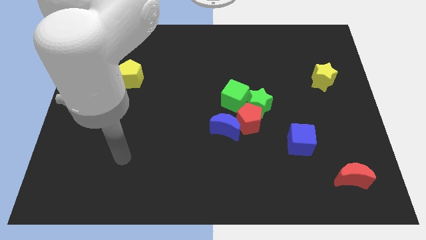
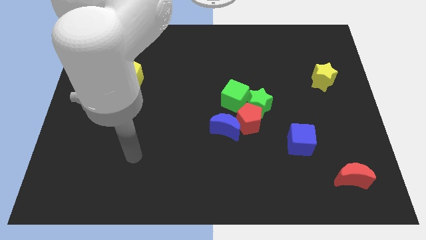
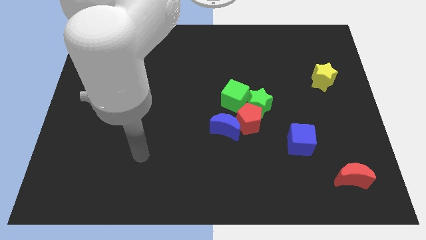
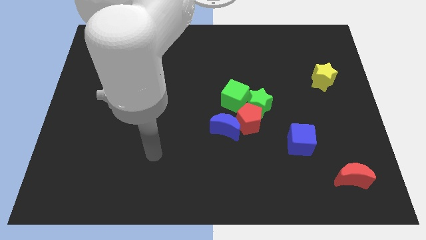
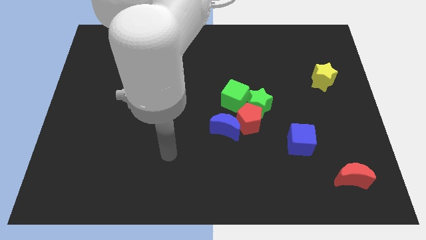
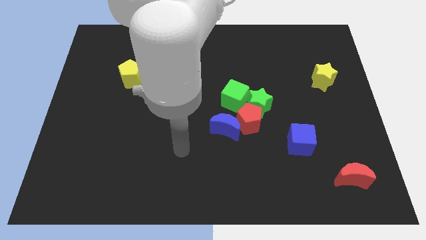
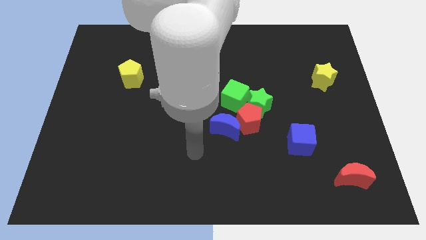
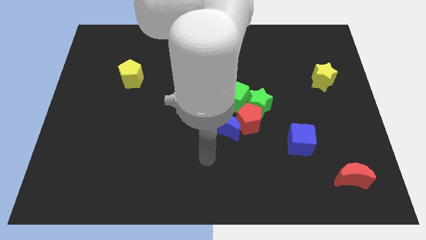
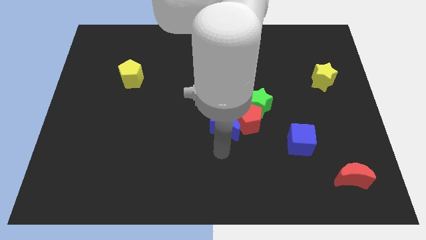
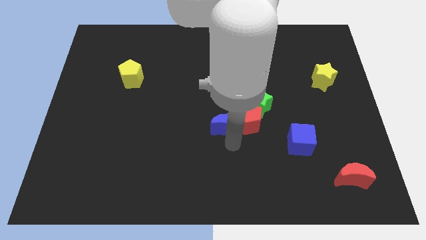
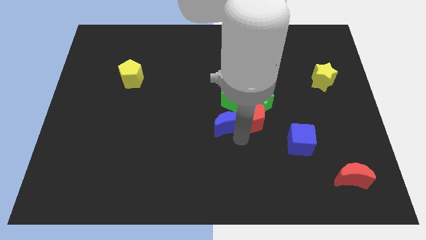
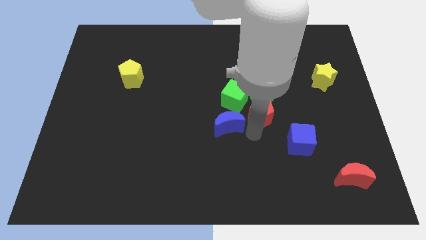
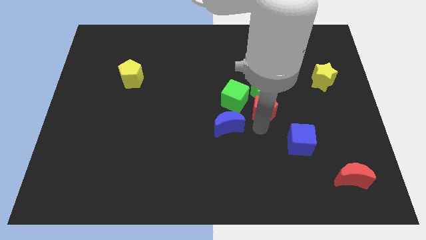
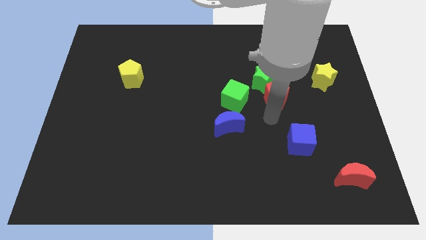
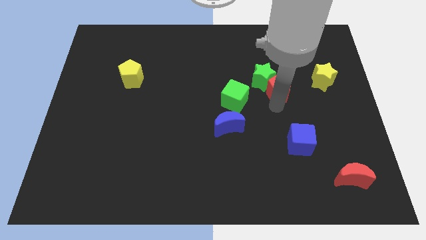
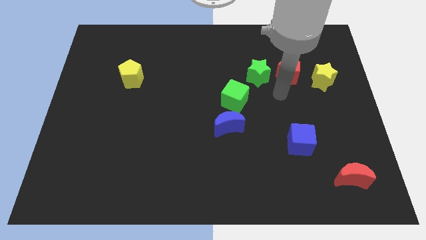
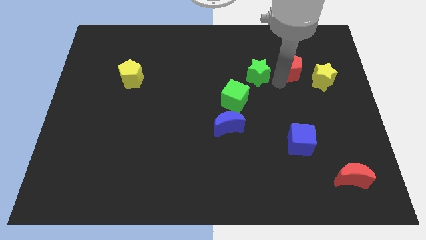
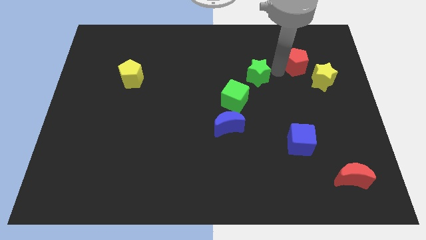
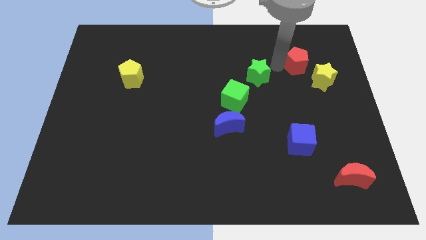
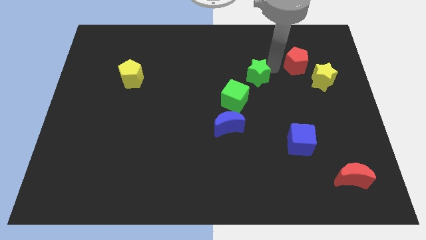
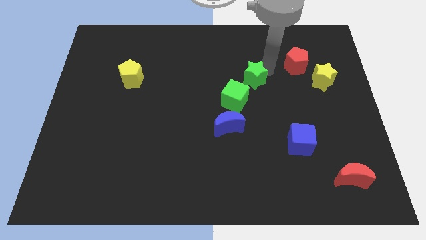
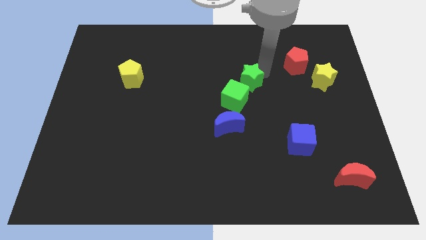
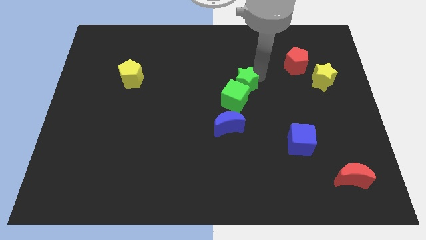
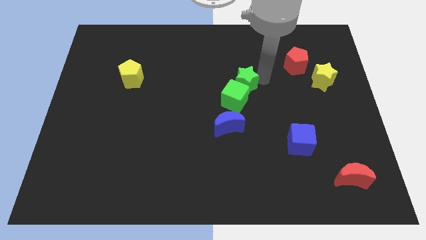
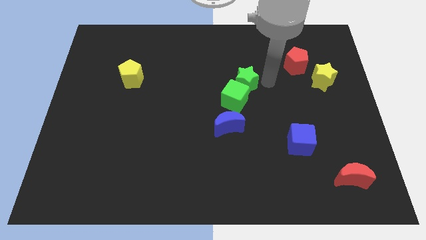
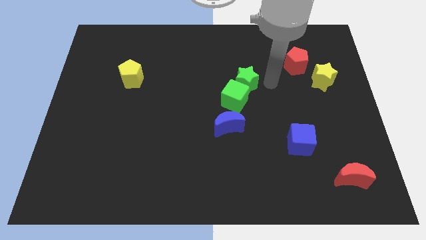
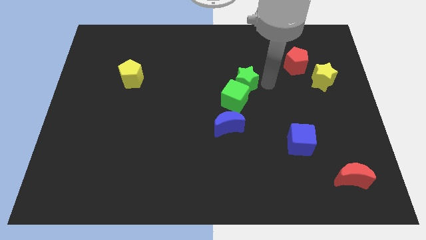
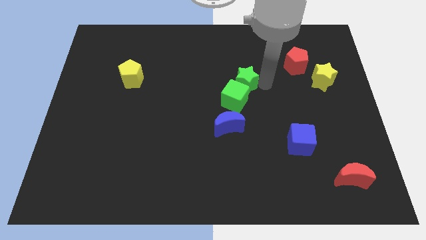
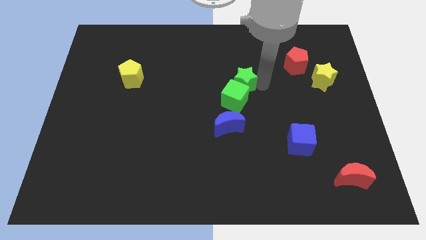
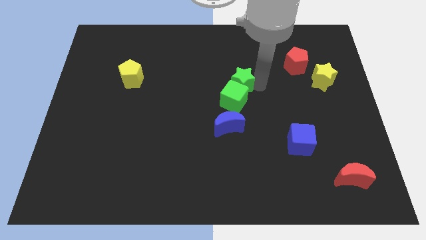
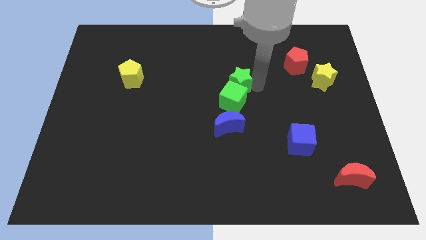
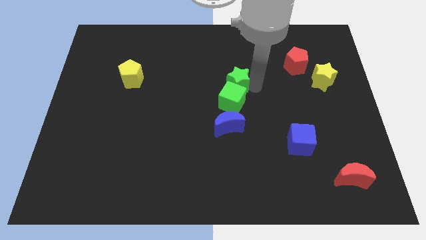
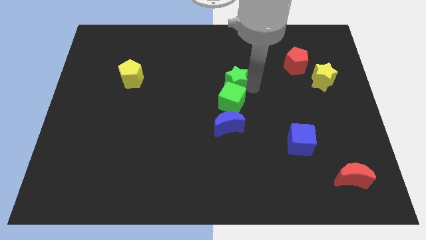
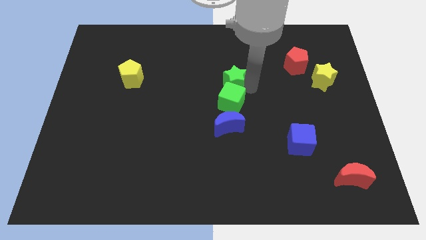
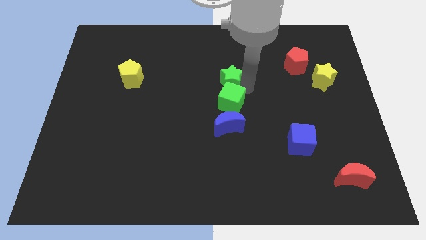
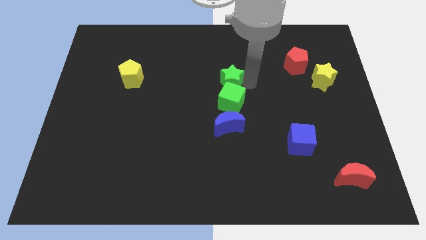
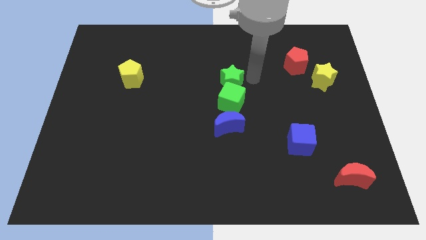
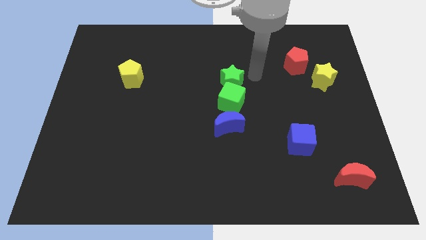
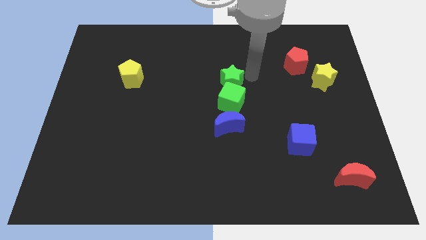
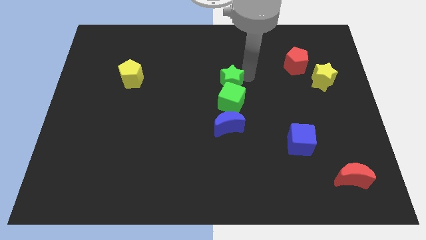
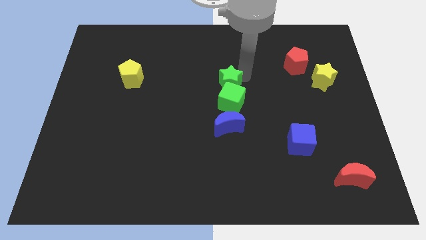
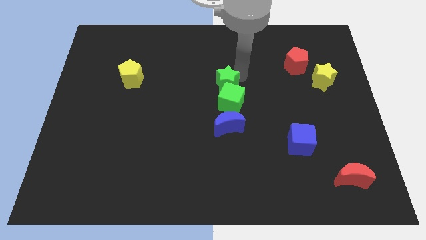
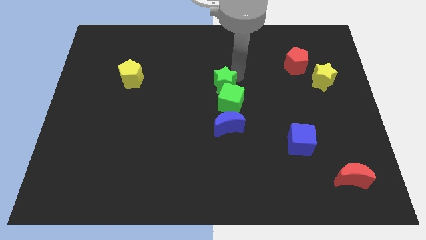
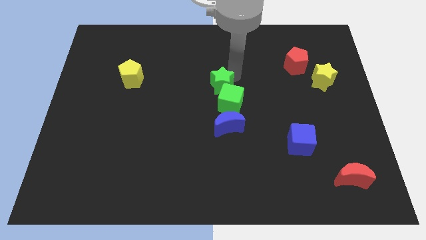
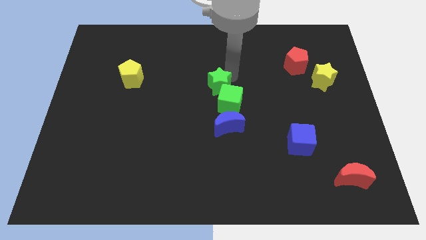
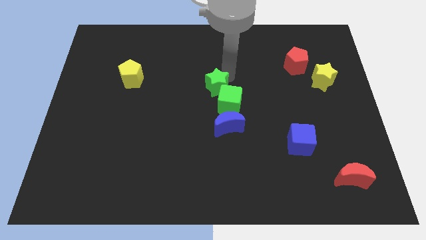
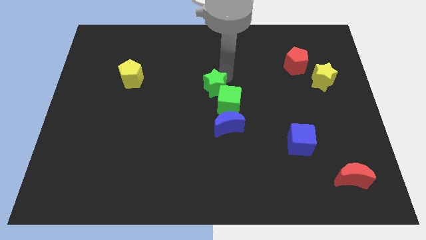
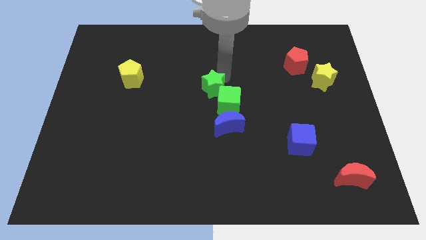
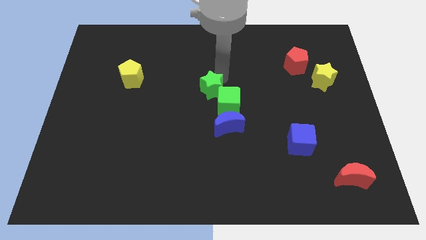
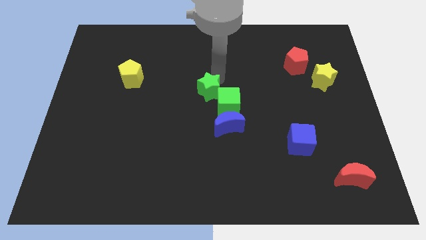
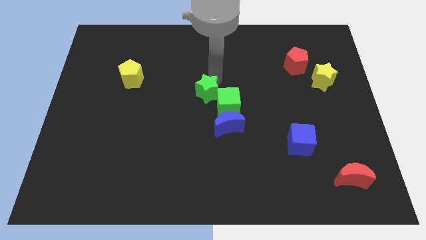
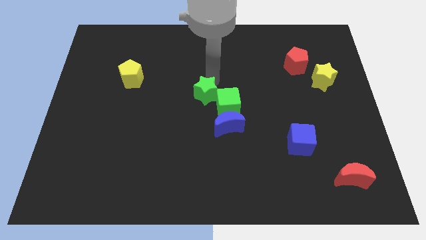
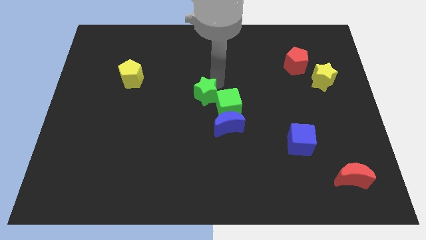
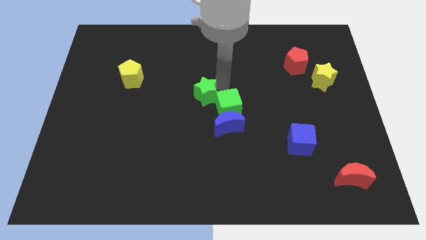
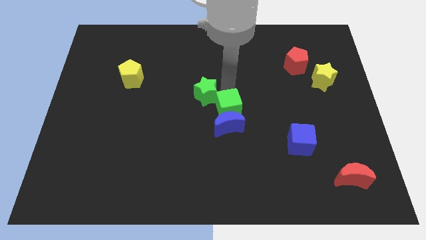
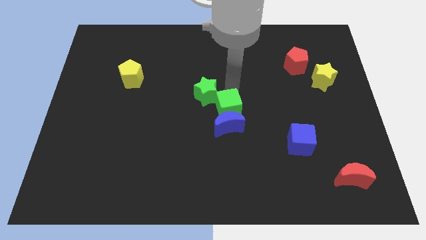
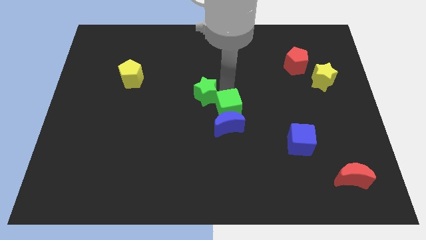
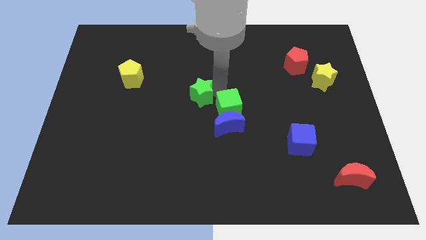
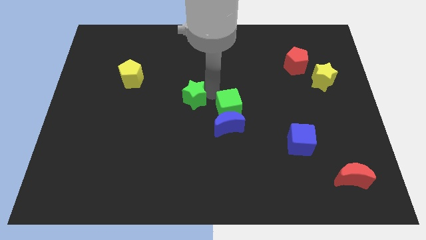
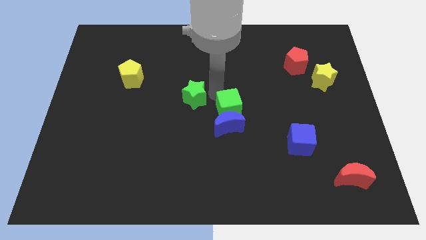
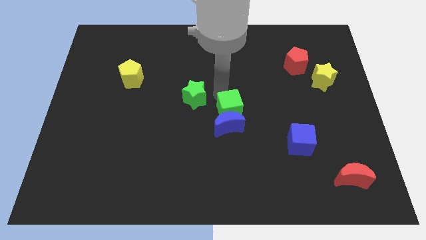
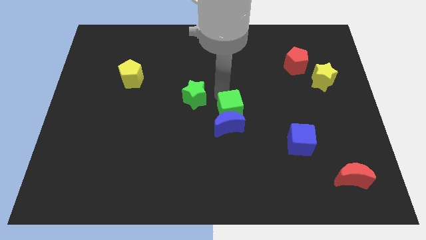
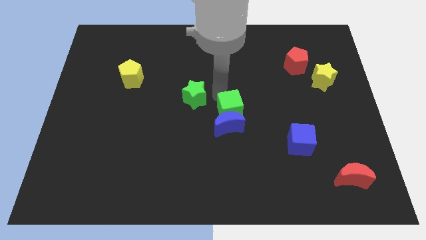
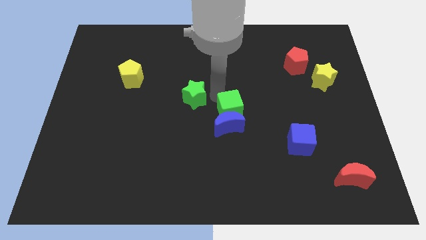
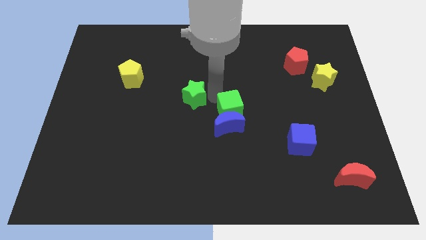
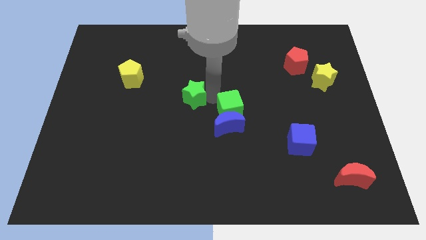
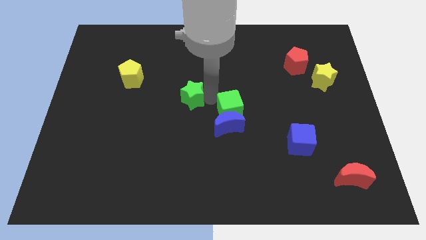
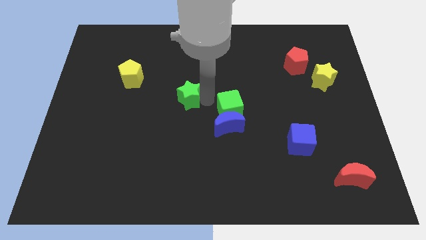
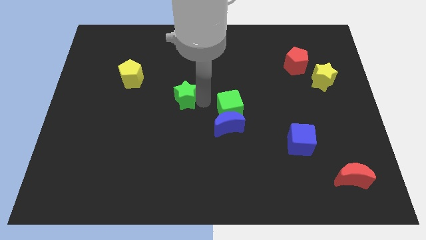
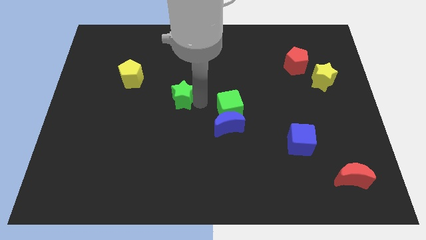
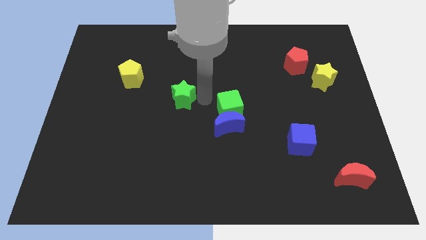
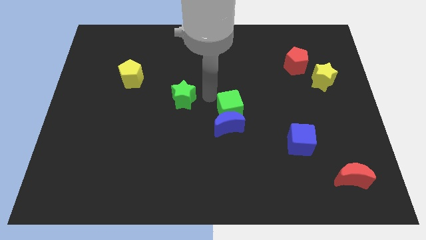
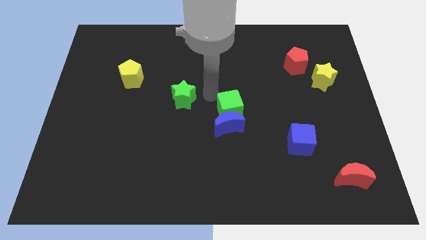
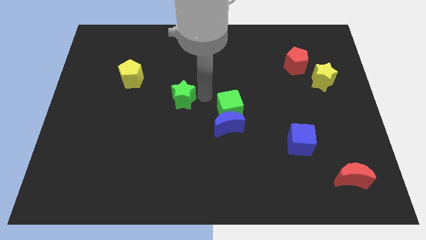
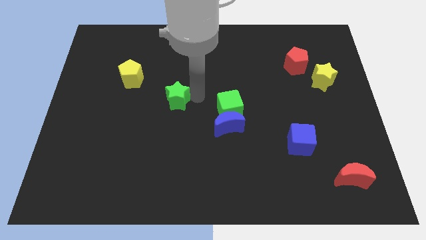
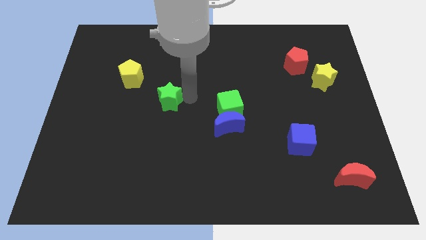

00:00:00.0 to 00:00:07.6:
move the green star to the left

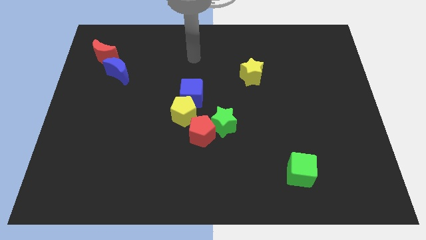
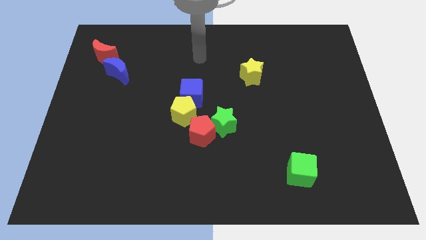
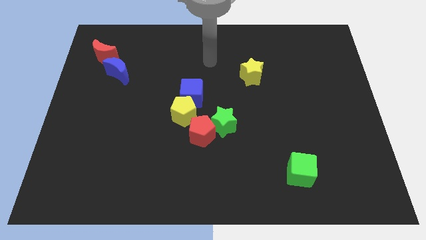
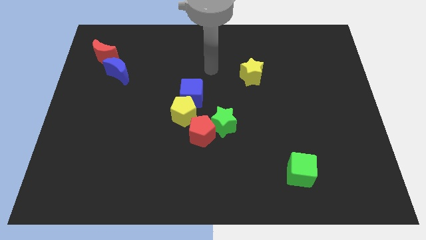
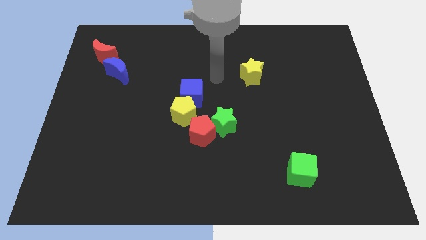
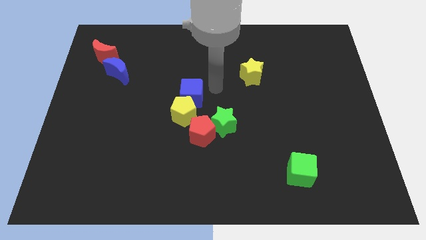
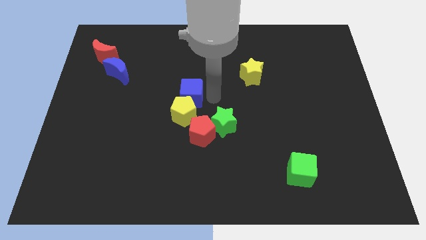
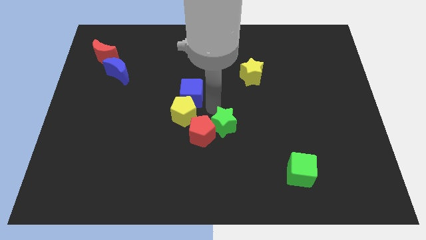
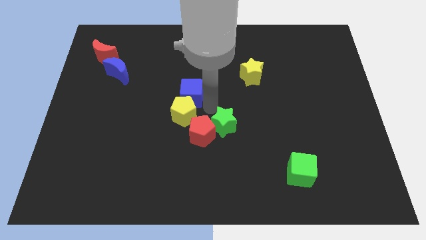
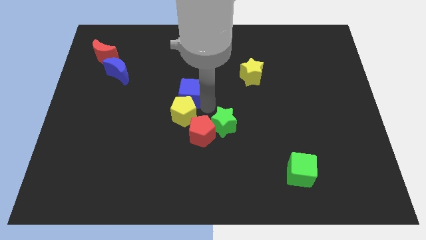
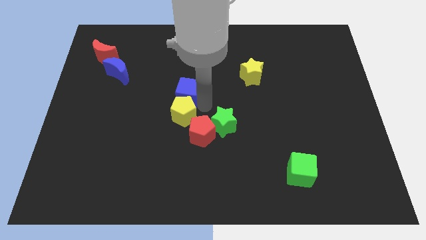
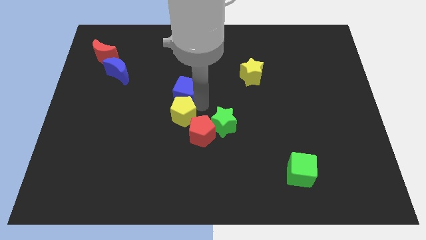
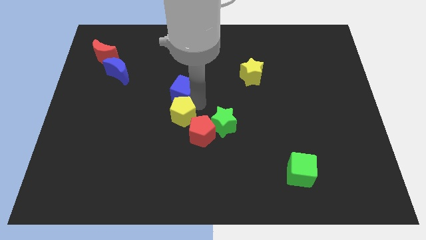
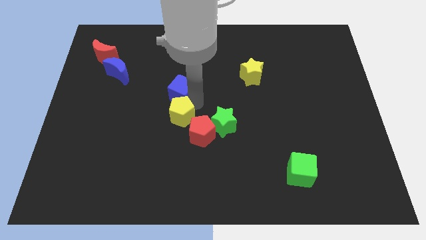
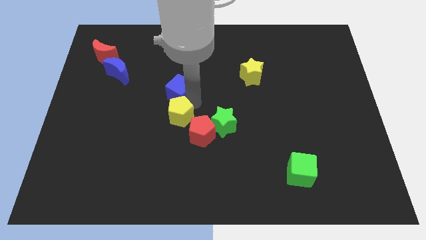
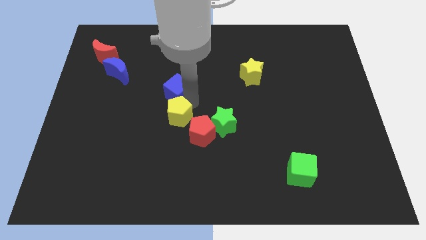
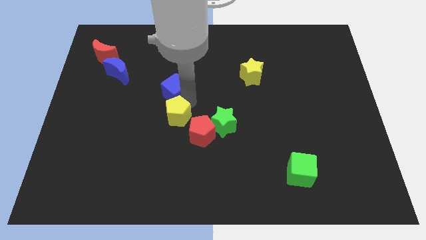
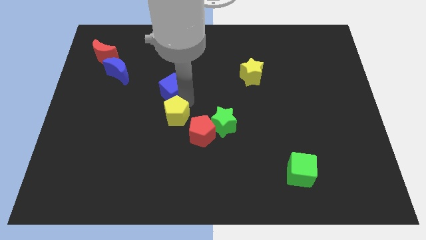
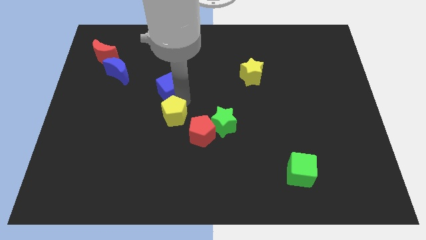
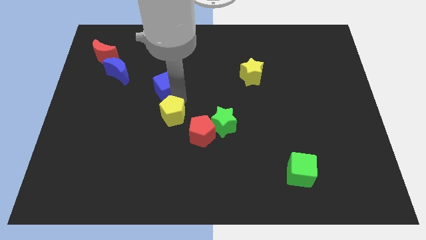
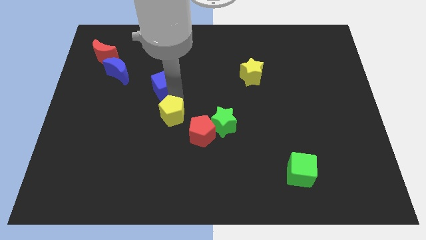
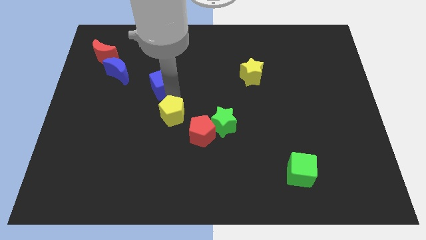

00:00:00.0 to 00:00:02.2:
slide the blue cube somewhat diagonally up and to the left
